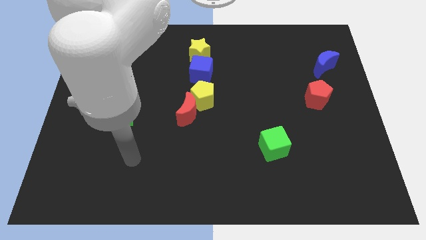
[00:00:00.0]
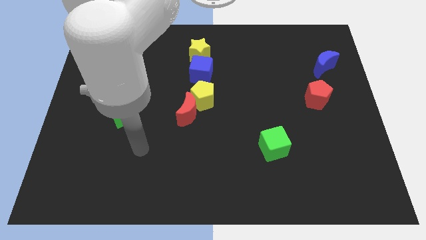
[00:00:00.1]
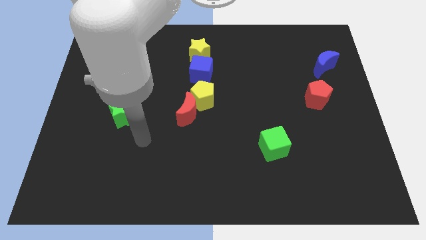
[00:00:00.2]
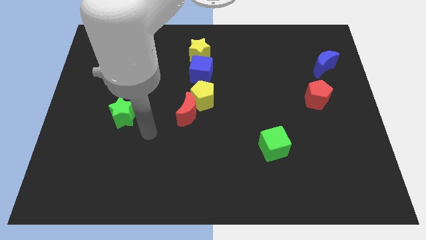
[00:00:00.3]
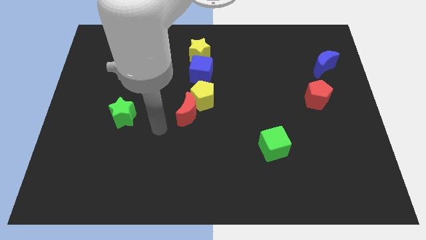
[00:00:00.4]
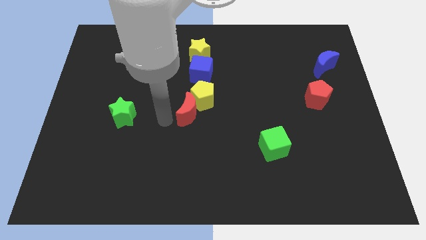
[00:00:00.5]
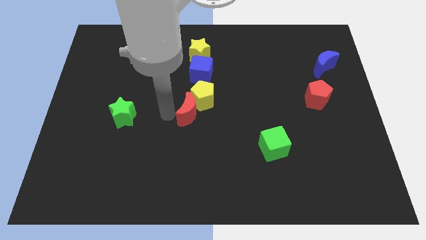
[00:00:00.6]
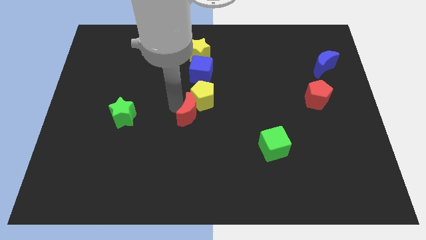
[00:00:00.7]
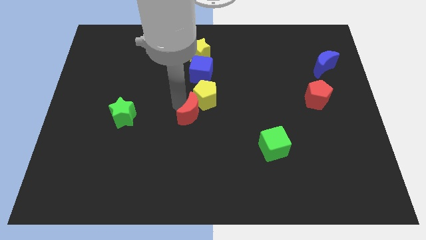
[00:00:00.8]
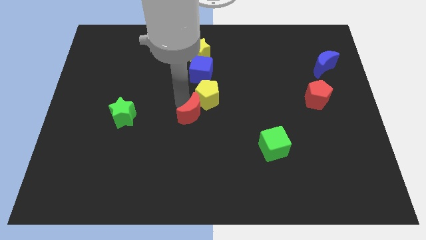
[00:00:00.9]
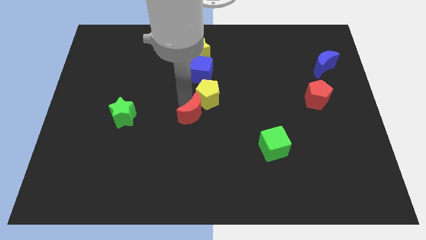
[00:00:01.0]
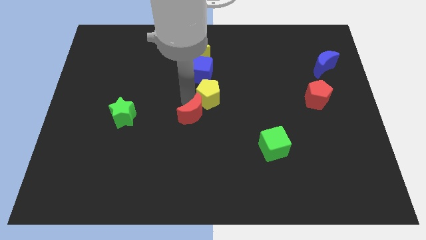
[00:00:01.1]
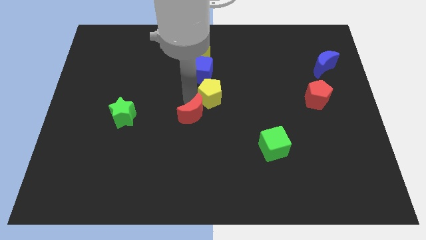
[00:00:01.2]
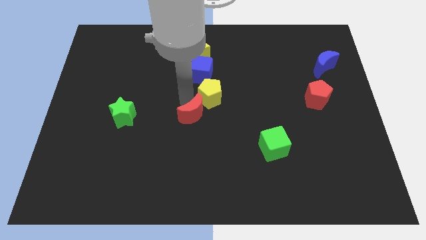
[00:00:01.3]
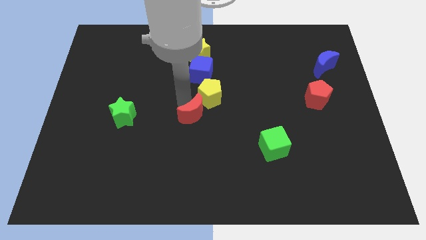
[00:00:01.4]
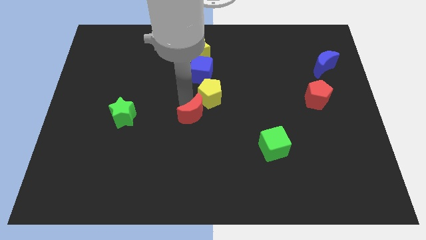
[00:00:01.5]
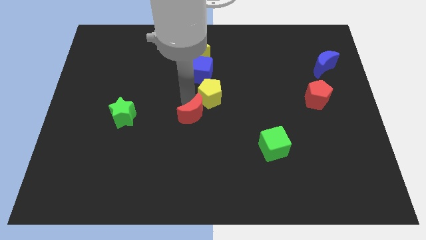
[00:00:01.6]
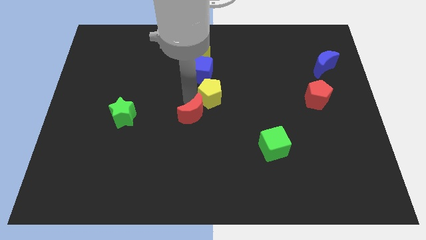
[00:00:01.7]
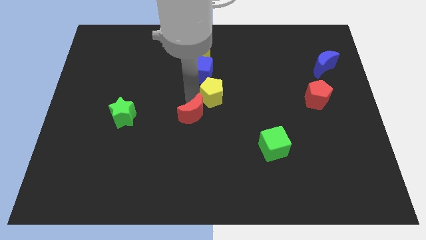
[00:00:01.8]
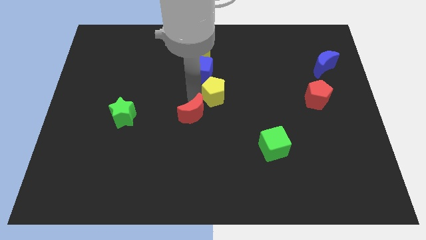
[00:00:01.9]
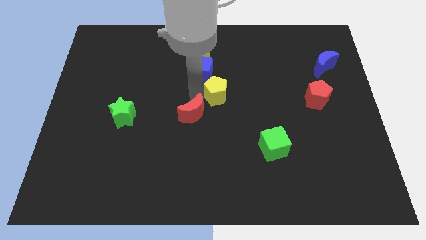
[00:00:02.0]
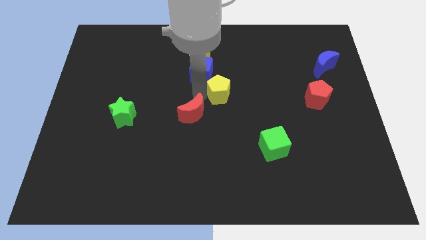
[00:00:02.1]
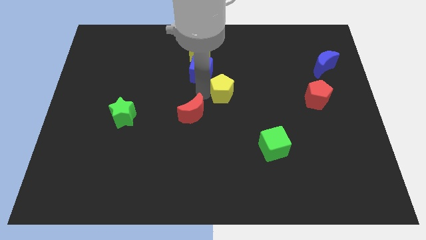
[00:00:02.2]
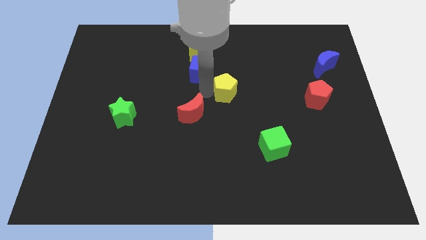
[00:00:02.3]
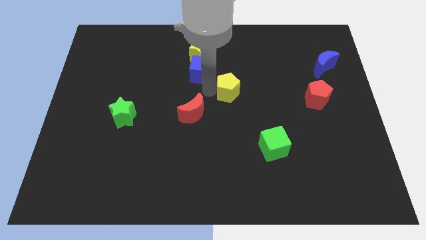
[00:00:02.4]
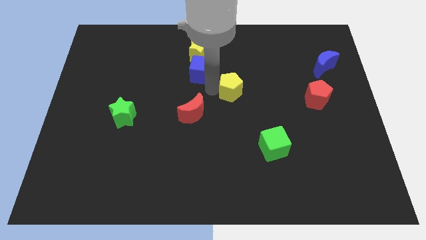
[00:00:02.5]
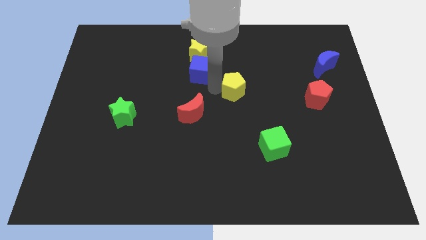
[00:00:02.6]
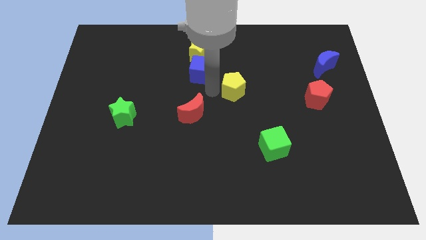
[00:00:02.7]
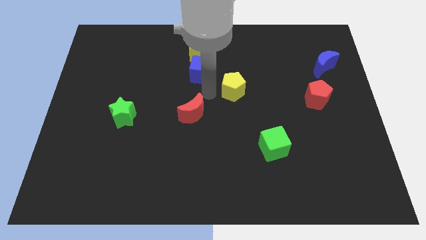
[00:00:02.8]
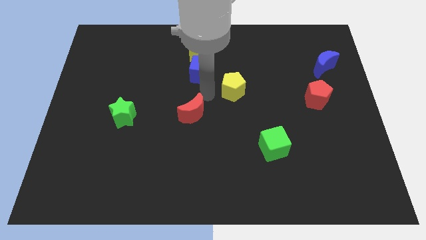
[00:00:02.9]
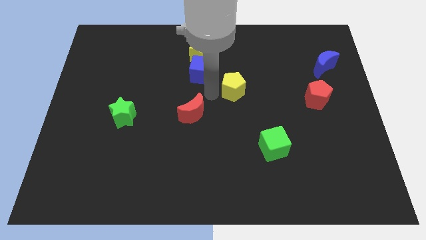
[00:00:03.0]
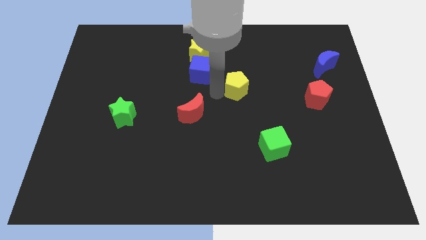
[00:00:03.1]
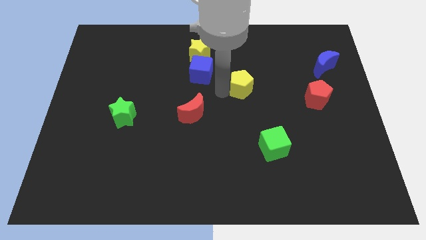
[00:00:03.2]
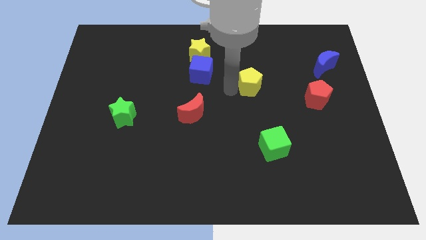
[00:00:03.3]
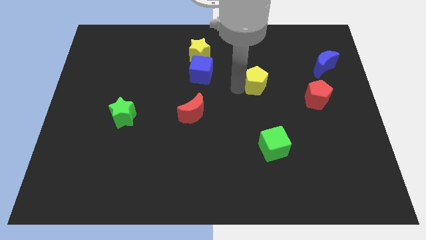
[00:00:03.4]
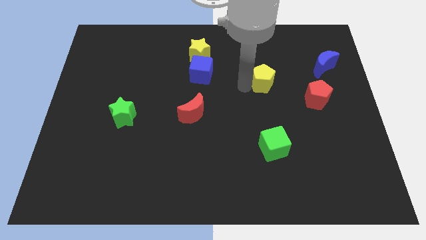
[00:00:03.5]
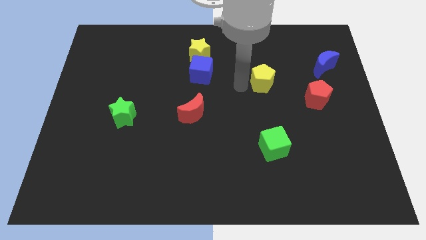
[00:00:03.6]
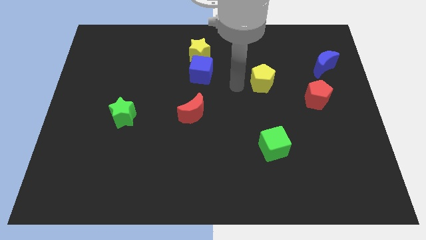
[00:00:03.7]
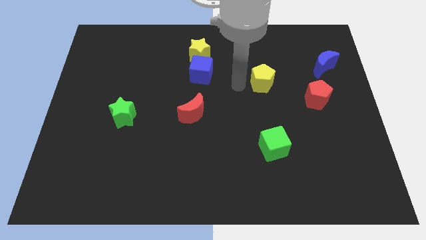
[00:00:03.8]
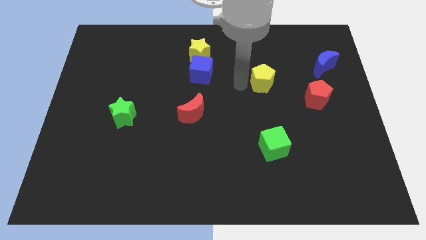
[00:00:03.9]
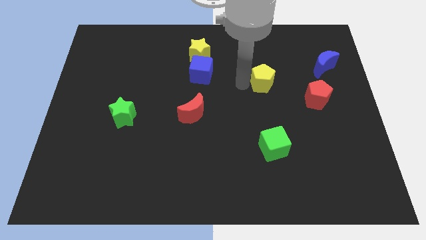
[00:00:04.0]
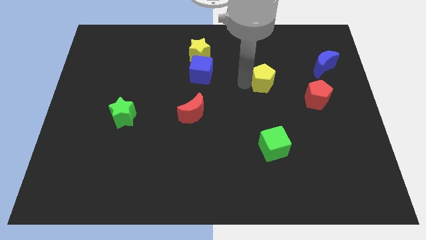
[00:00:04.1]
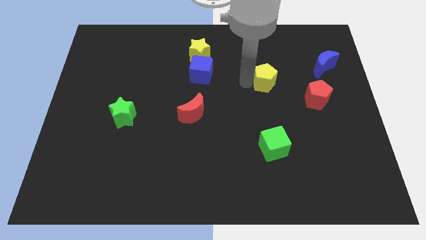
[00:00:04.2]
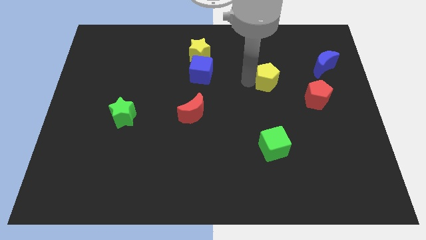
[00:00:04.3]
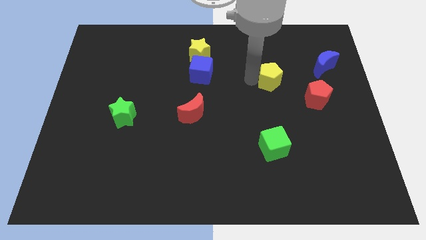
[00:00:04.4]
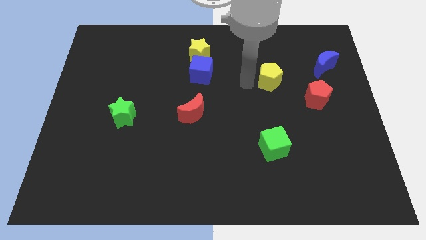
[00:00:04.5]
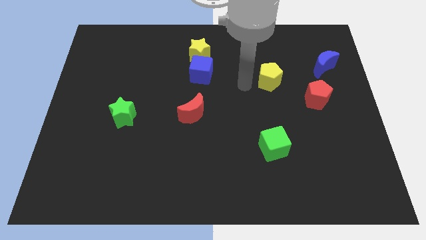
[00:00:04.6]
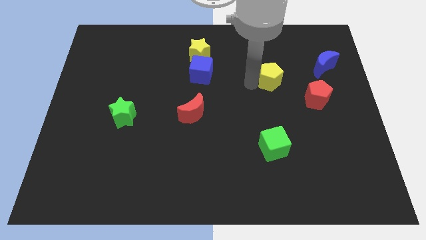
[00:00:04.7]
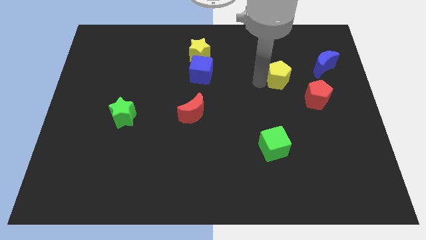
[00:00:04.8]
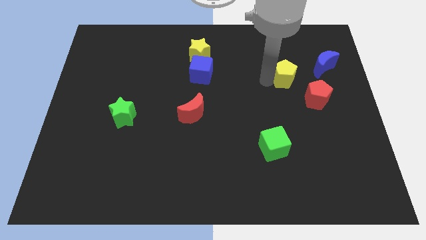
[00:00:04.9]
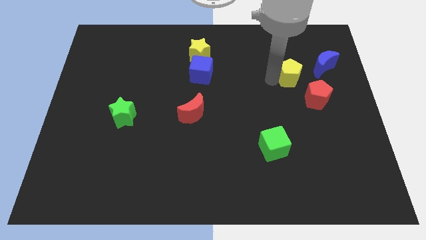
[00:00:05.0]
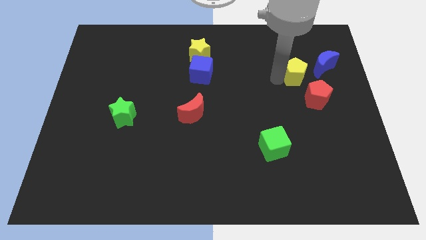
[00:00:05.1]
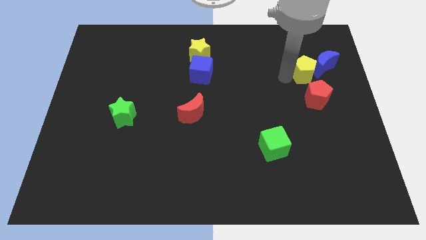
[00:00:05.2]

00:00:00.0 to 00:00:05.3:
push the yellow pentagon close to the blue moon
